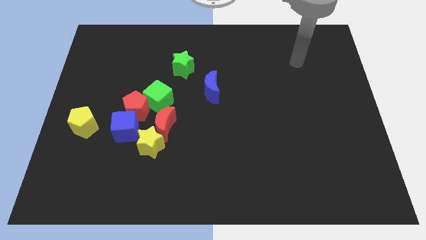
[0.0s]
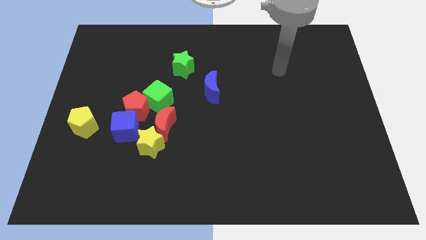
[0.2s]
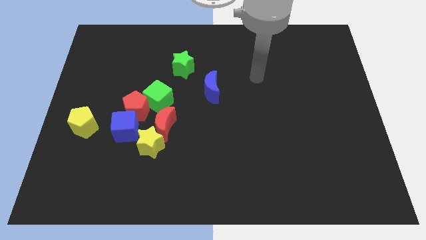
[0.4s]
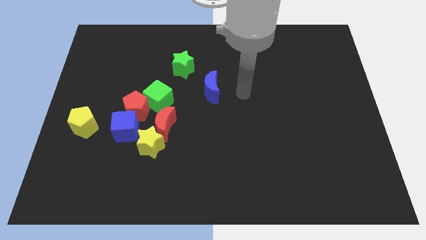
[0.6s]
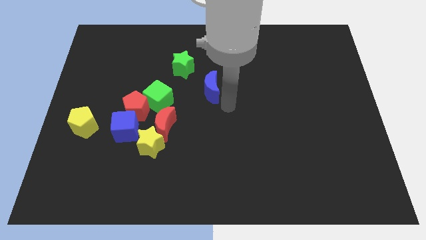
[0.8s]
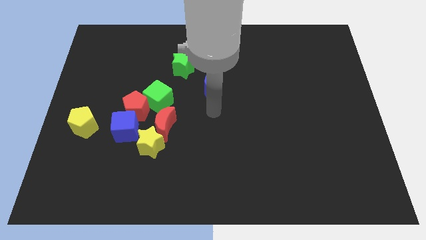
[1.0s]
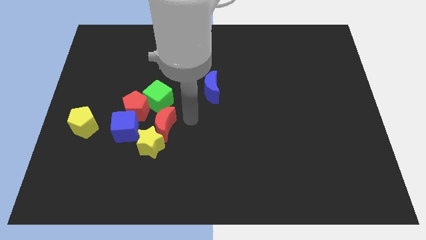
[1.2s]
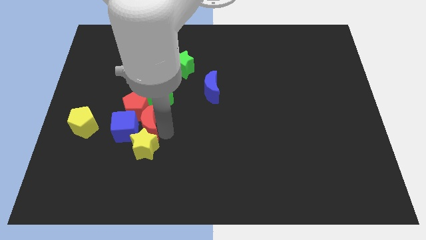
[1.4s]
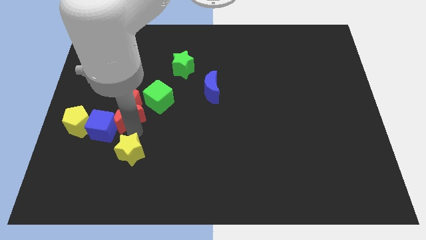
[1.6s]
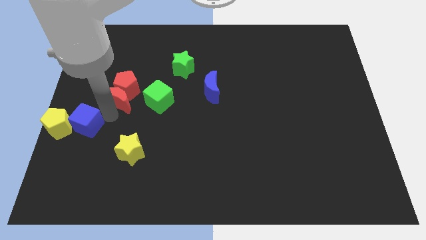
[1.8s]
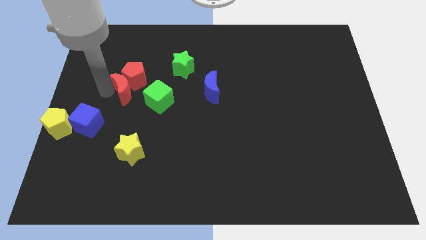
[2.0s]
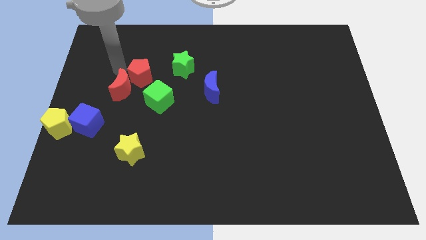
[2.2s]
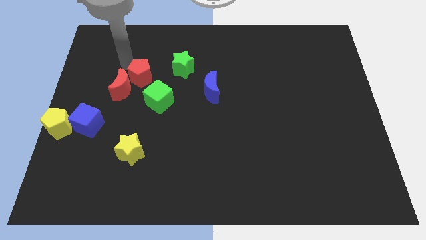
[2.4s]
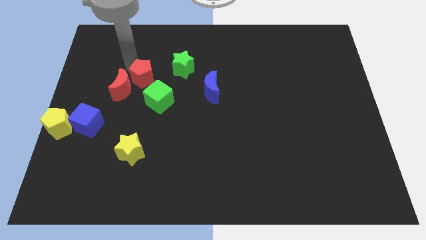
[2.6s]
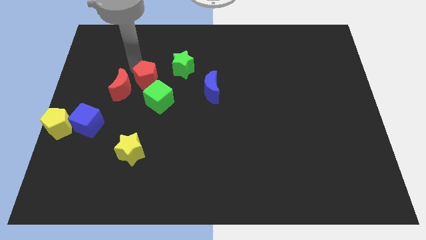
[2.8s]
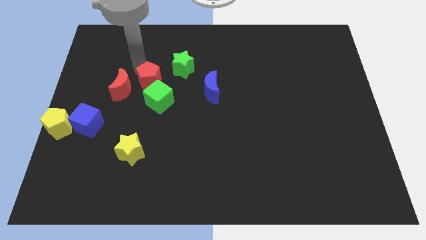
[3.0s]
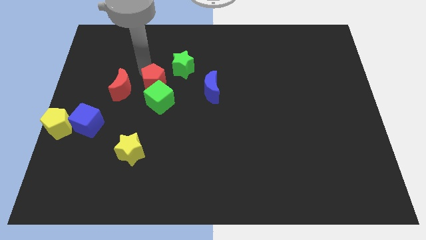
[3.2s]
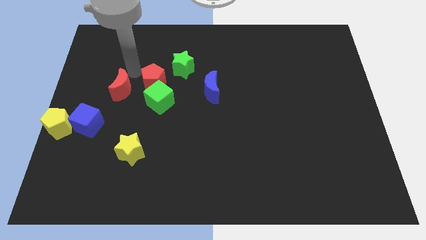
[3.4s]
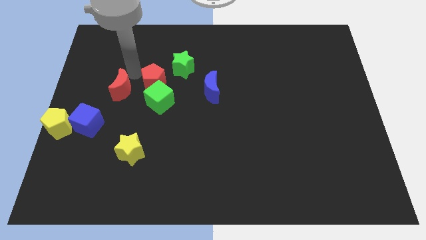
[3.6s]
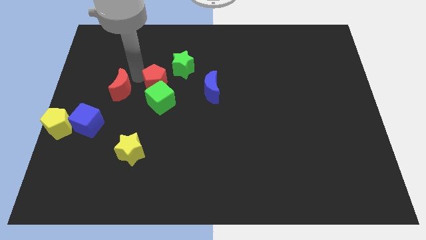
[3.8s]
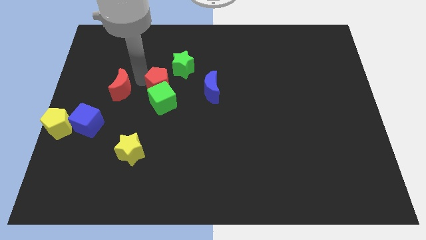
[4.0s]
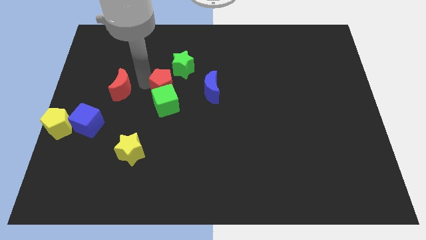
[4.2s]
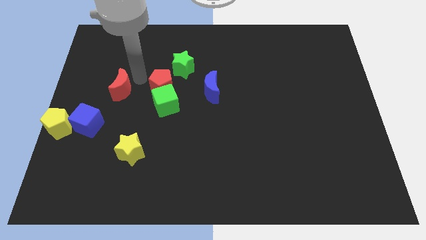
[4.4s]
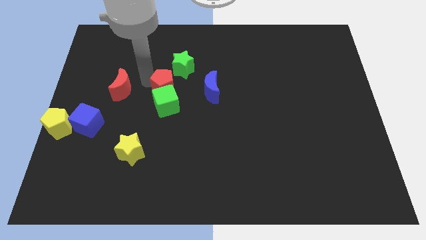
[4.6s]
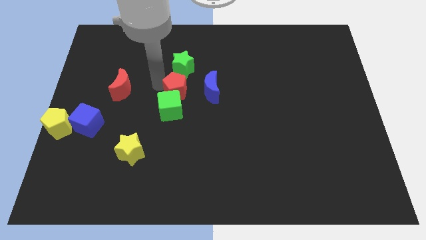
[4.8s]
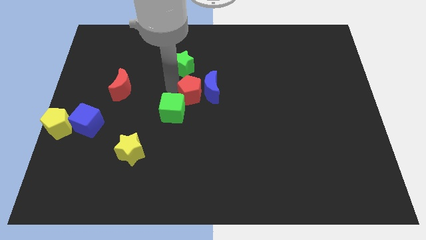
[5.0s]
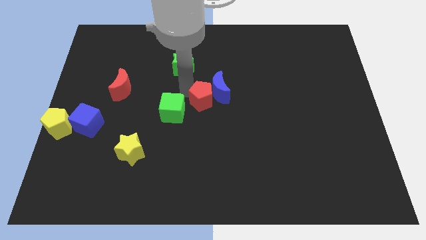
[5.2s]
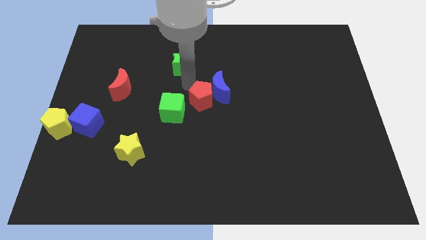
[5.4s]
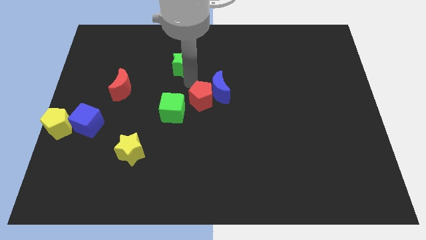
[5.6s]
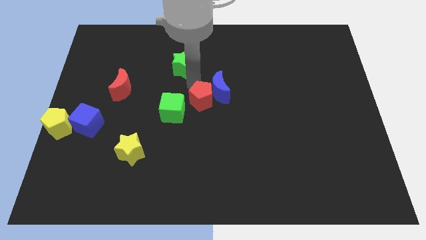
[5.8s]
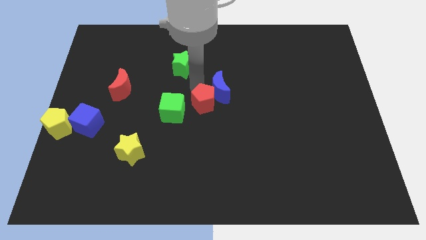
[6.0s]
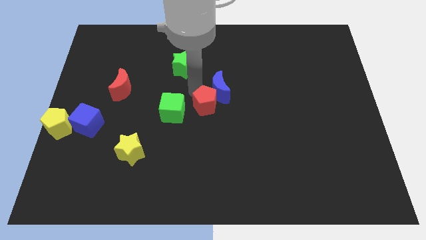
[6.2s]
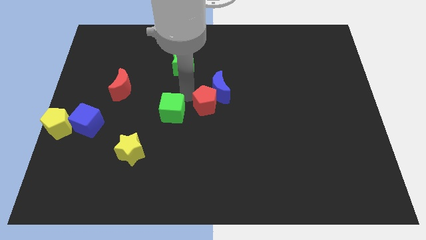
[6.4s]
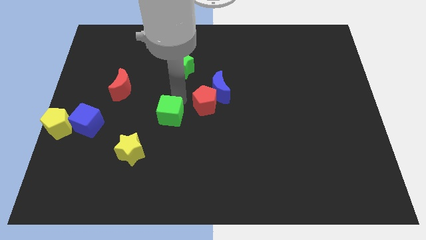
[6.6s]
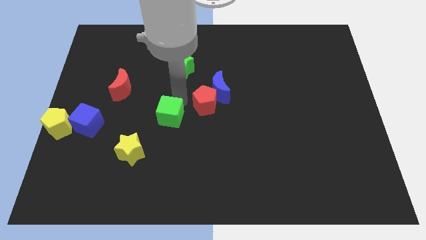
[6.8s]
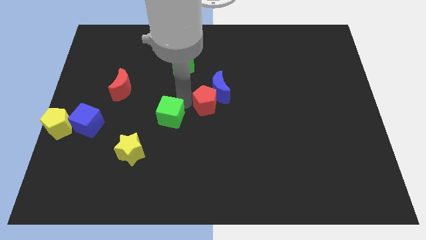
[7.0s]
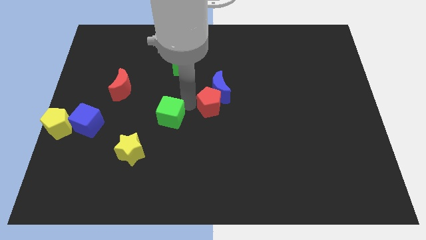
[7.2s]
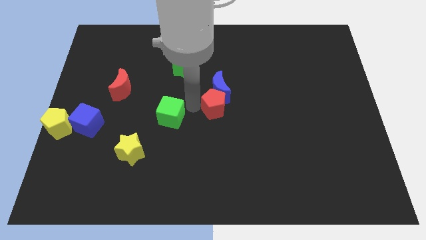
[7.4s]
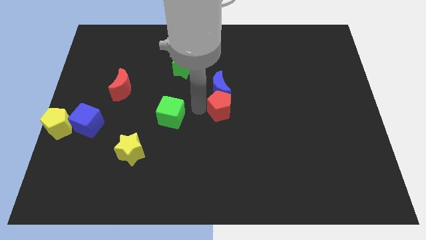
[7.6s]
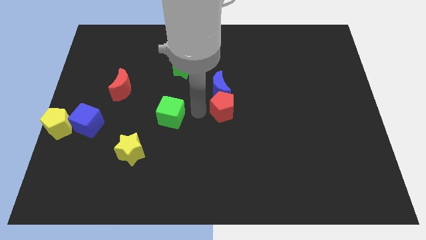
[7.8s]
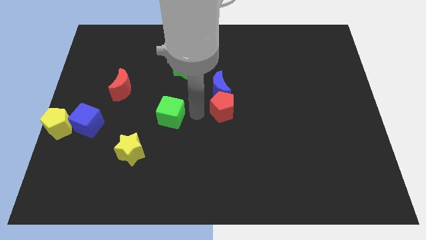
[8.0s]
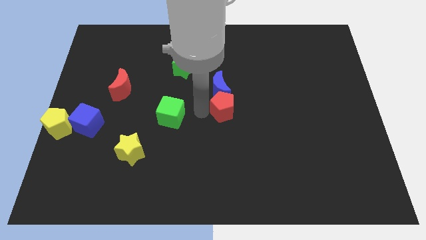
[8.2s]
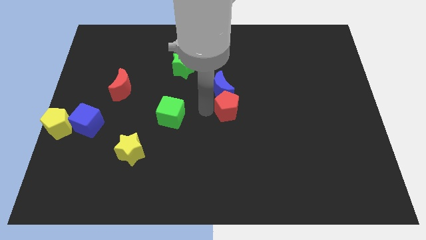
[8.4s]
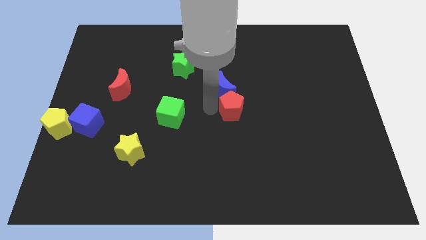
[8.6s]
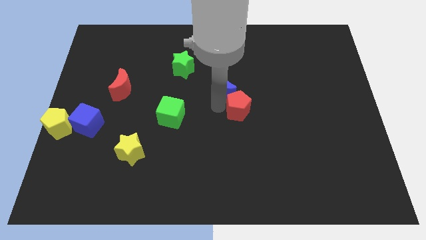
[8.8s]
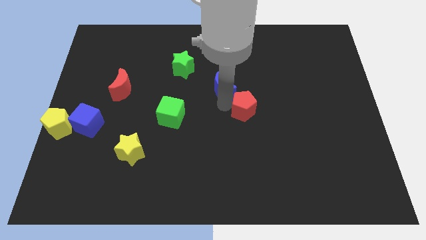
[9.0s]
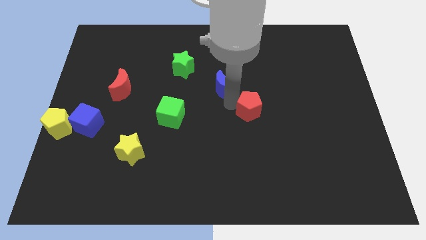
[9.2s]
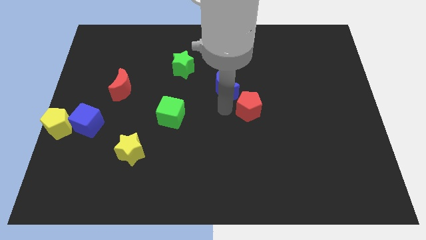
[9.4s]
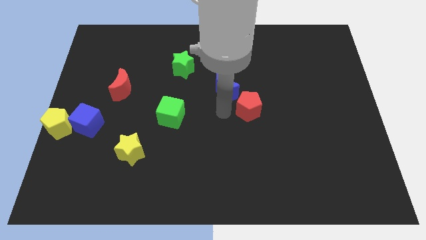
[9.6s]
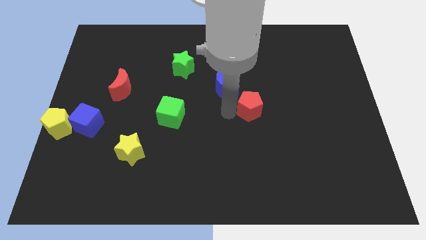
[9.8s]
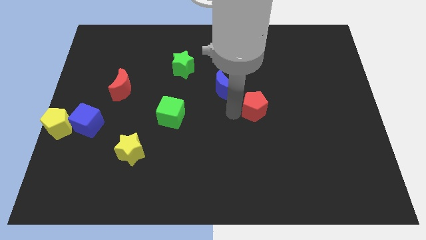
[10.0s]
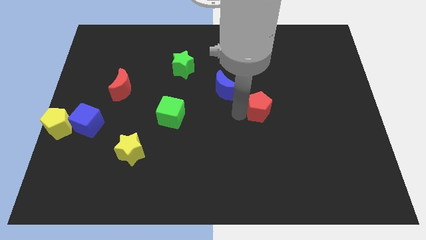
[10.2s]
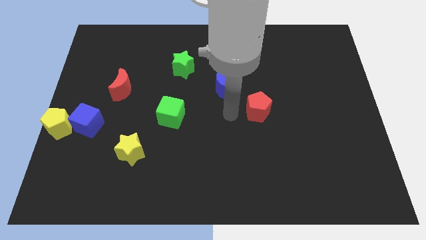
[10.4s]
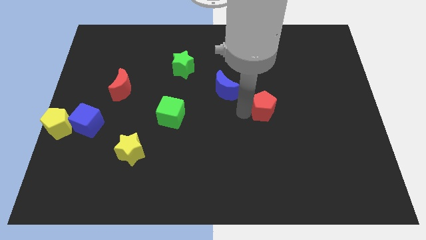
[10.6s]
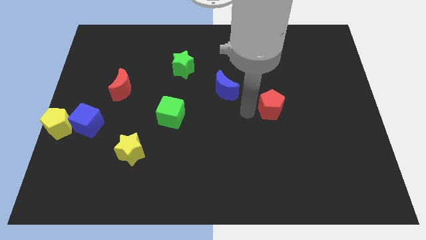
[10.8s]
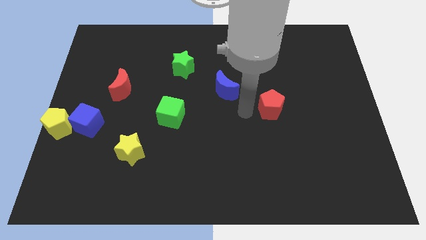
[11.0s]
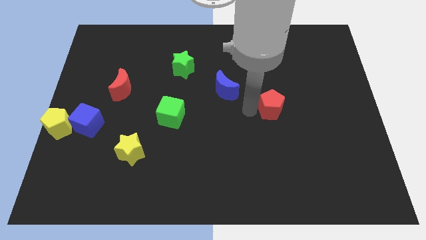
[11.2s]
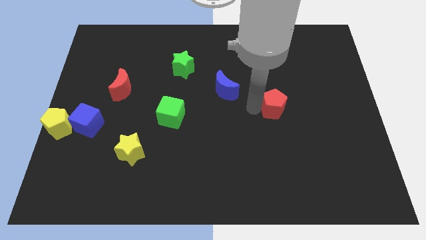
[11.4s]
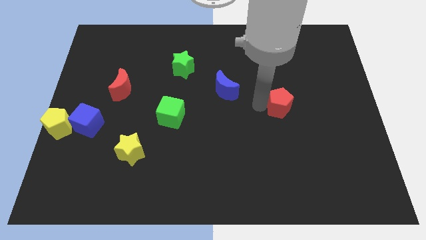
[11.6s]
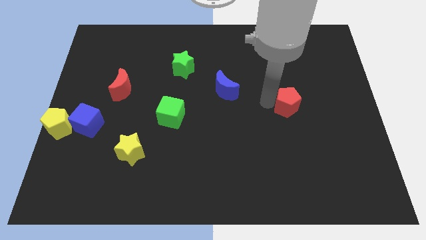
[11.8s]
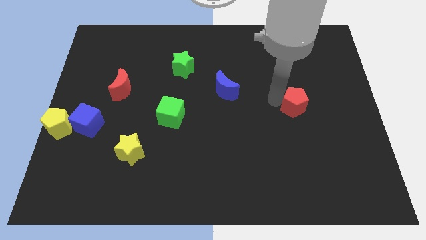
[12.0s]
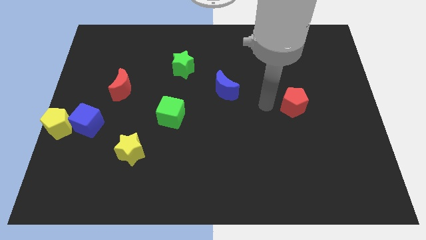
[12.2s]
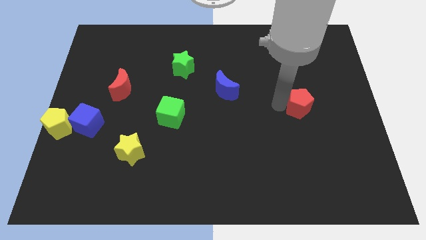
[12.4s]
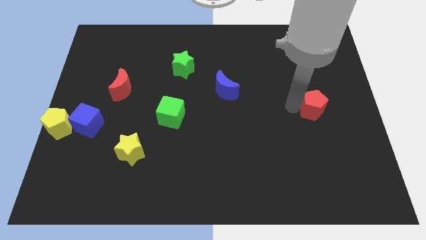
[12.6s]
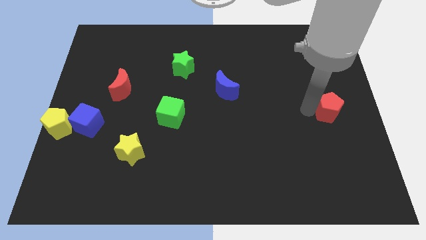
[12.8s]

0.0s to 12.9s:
push the red pentagon to the right side

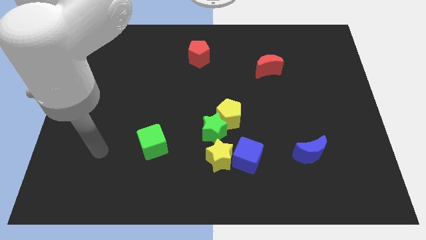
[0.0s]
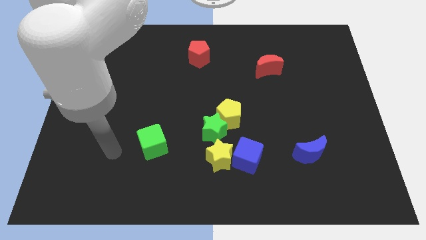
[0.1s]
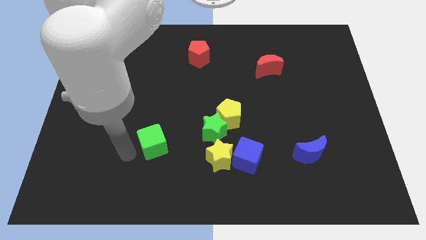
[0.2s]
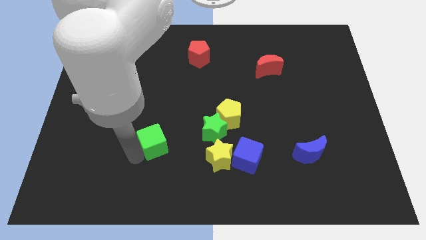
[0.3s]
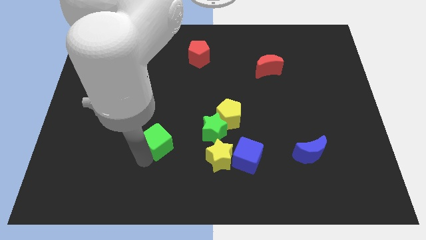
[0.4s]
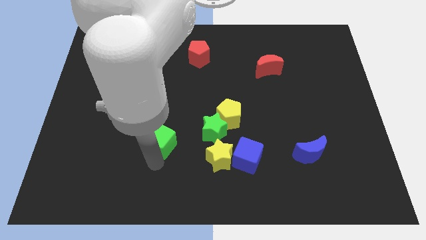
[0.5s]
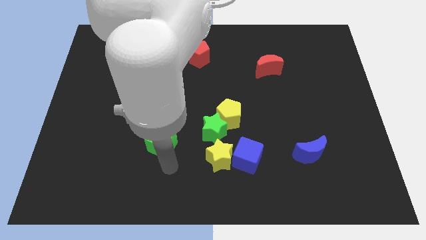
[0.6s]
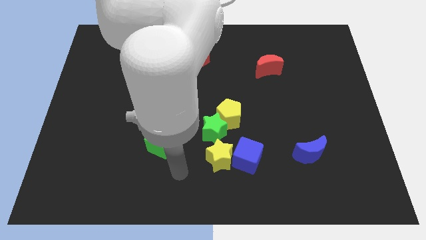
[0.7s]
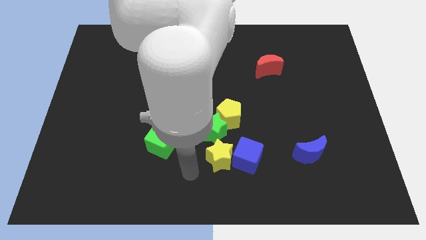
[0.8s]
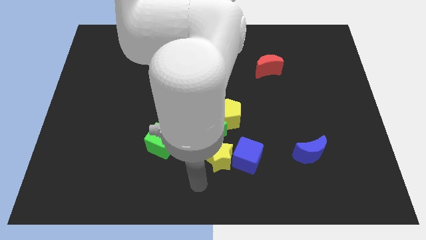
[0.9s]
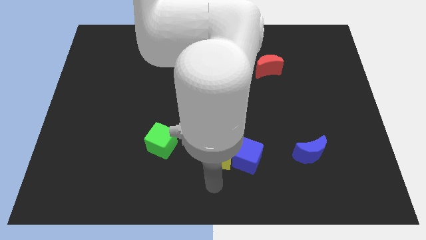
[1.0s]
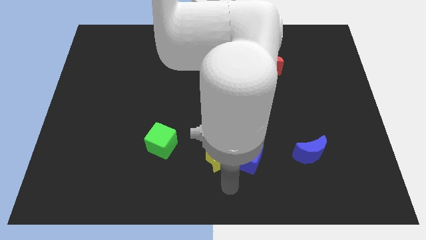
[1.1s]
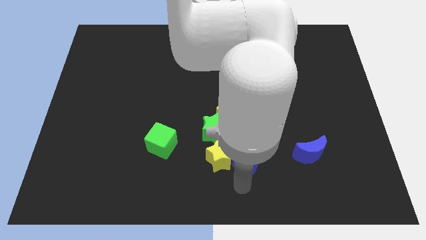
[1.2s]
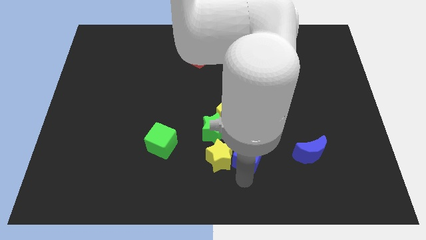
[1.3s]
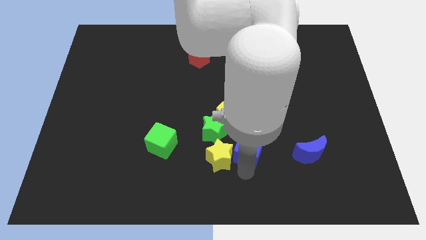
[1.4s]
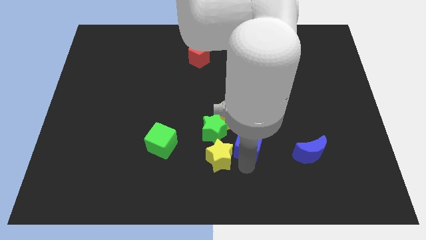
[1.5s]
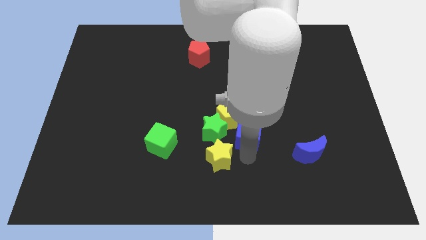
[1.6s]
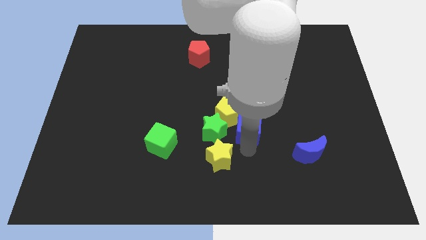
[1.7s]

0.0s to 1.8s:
move the blue cube to the center
